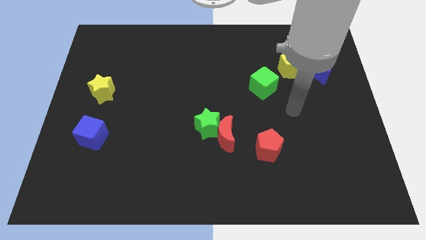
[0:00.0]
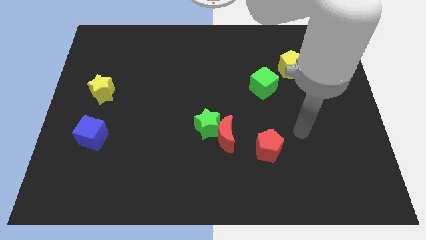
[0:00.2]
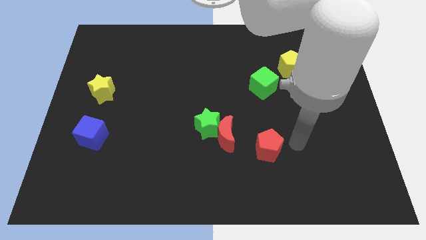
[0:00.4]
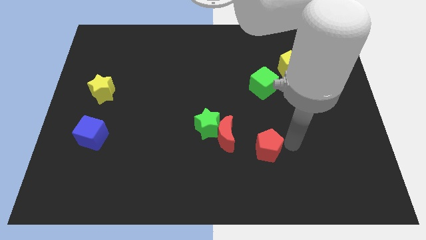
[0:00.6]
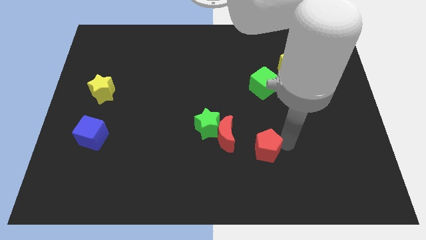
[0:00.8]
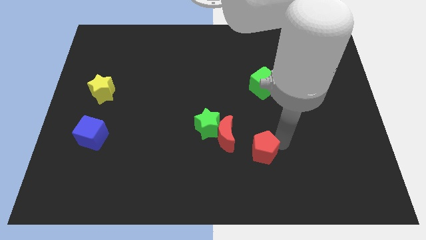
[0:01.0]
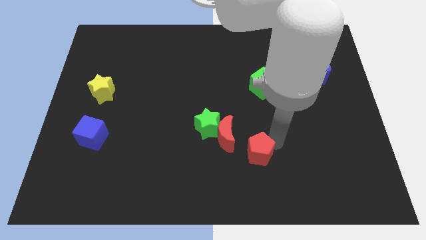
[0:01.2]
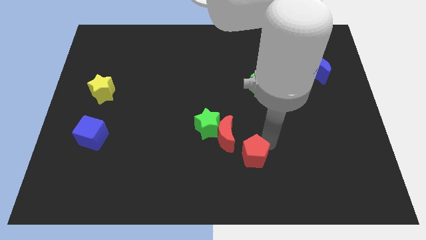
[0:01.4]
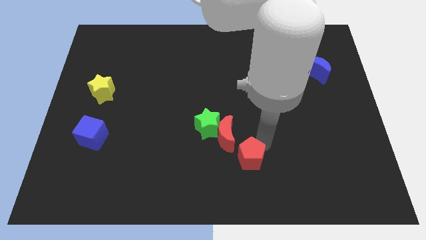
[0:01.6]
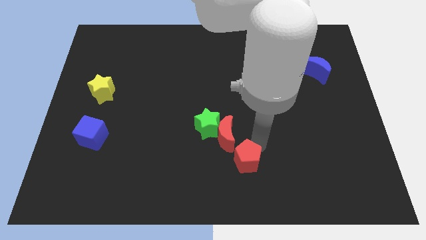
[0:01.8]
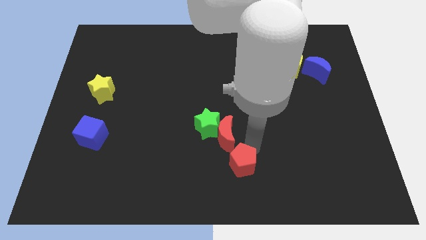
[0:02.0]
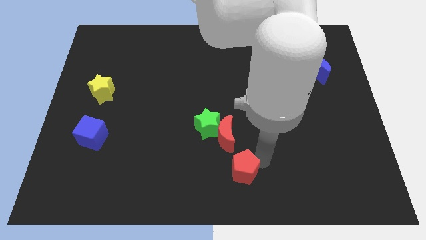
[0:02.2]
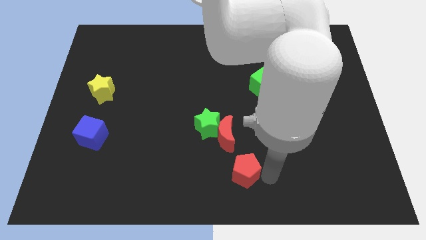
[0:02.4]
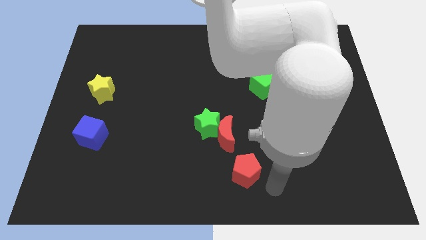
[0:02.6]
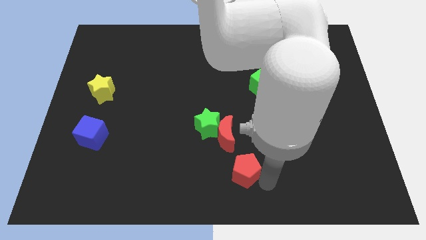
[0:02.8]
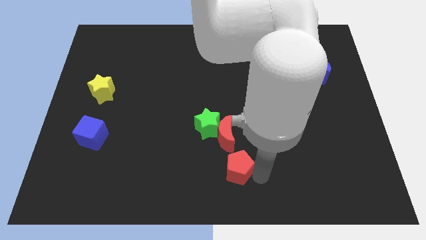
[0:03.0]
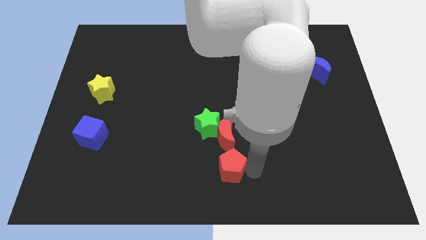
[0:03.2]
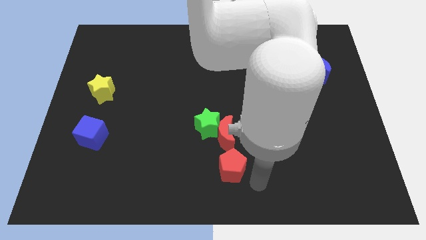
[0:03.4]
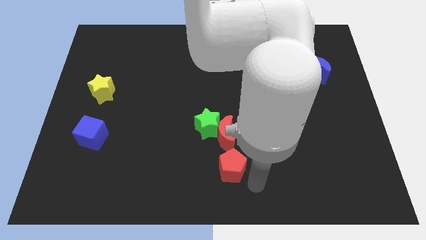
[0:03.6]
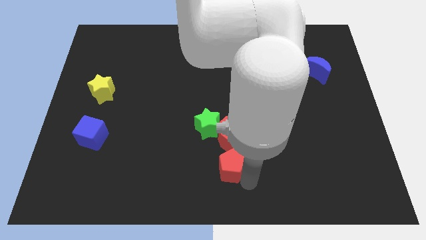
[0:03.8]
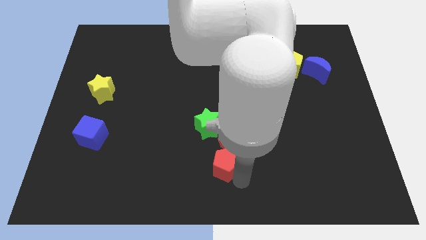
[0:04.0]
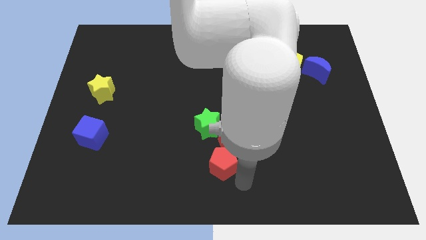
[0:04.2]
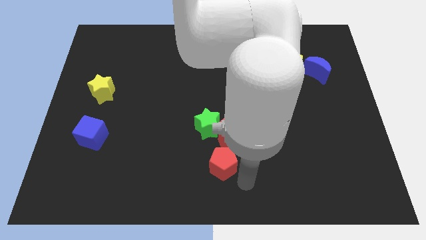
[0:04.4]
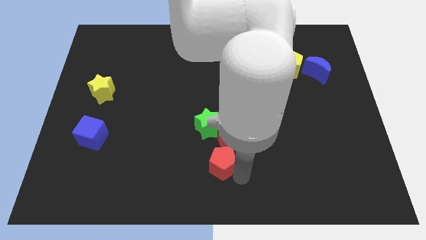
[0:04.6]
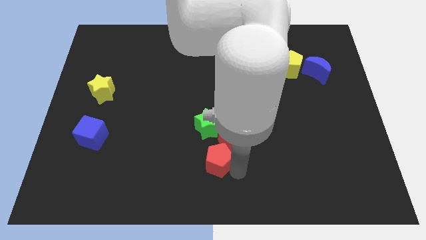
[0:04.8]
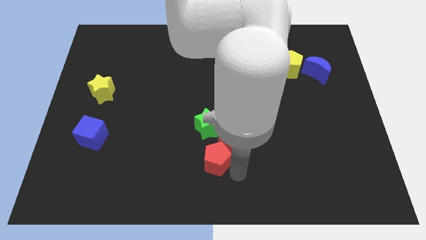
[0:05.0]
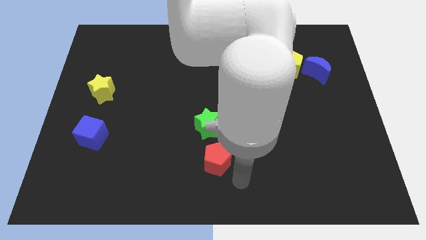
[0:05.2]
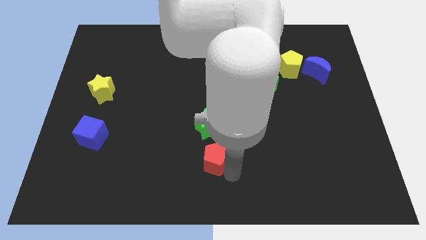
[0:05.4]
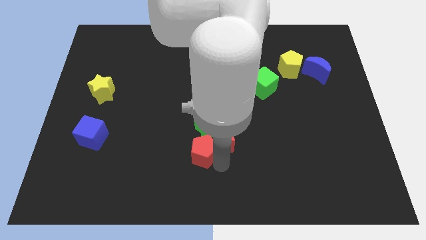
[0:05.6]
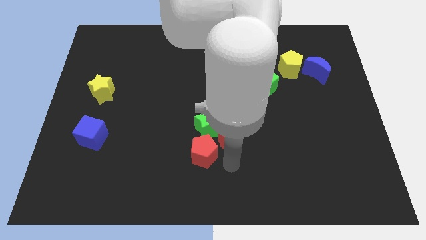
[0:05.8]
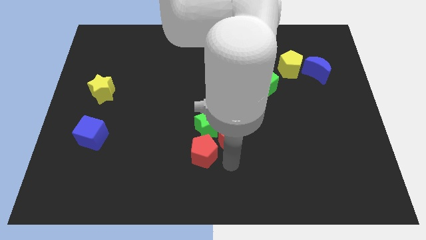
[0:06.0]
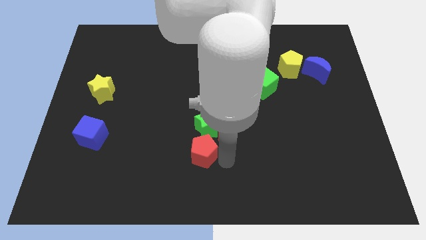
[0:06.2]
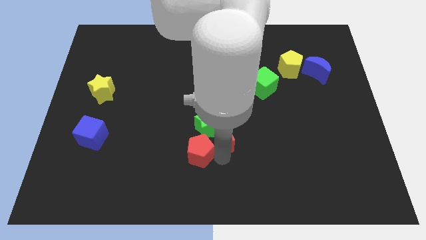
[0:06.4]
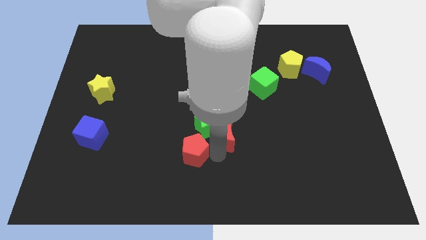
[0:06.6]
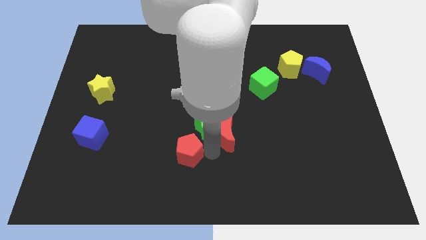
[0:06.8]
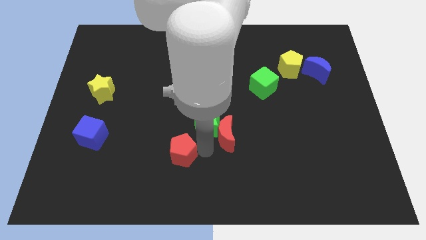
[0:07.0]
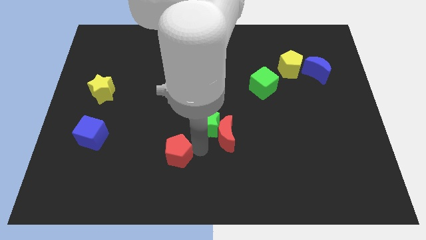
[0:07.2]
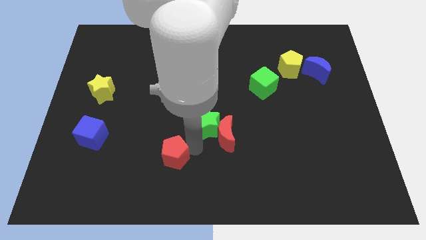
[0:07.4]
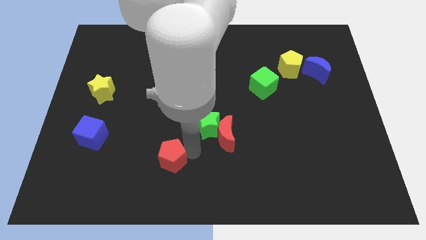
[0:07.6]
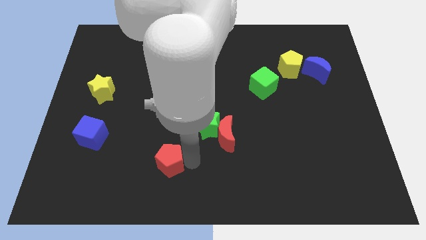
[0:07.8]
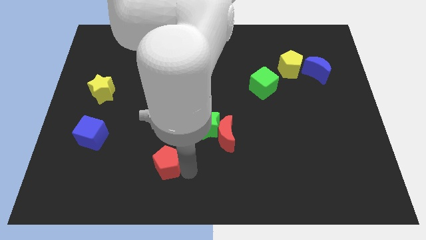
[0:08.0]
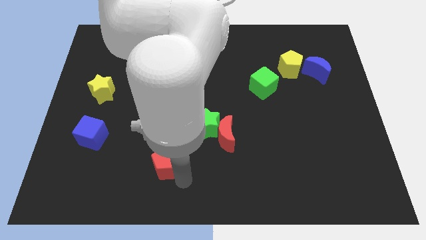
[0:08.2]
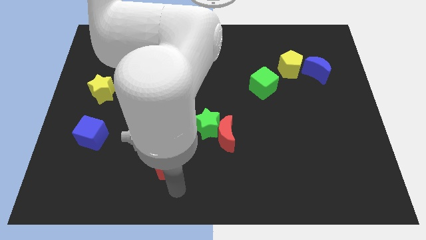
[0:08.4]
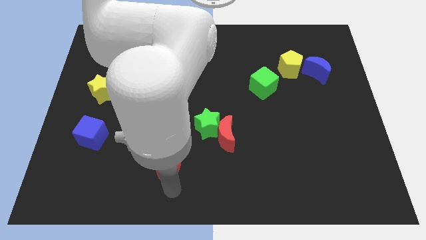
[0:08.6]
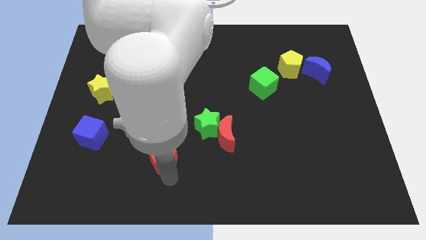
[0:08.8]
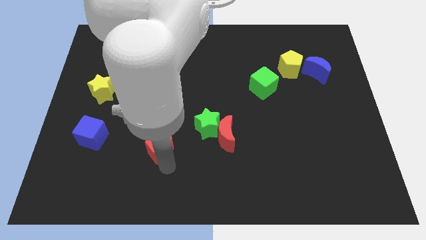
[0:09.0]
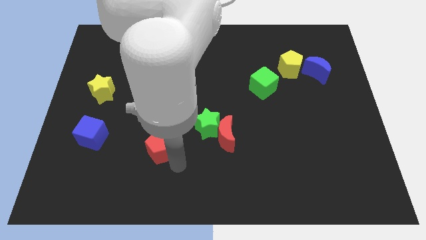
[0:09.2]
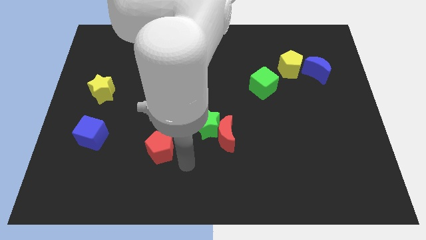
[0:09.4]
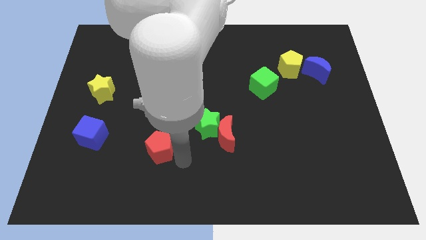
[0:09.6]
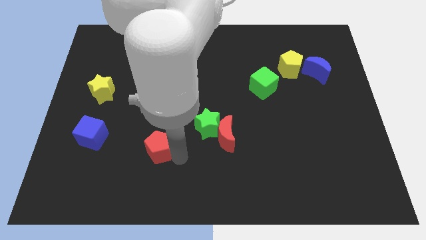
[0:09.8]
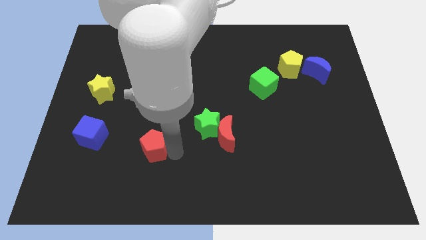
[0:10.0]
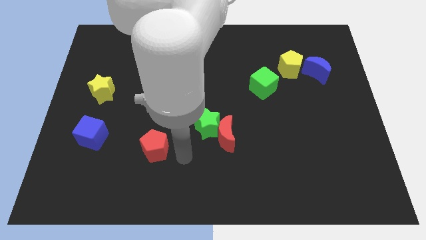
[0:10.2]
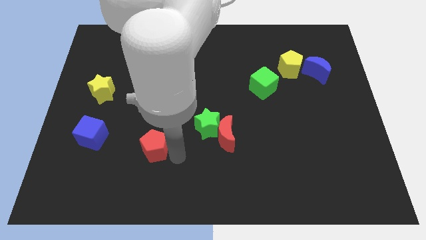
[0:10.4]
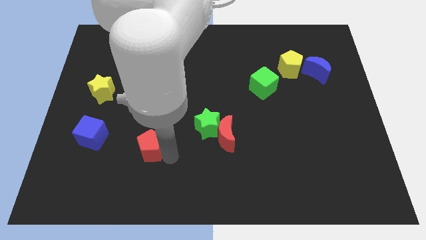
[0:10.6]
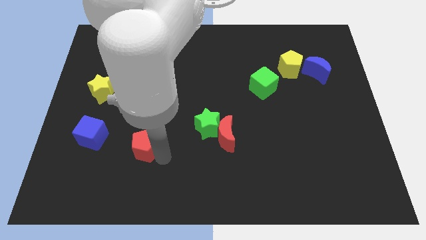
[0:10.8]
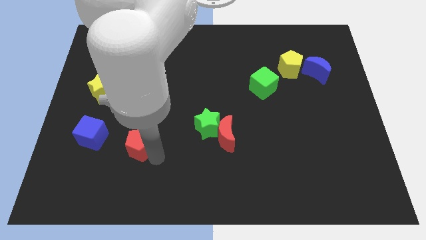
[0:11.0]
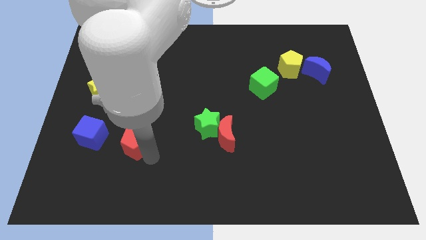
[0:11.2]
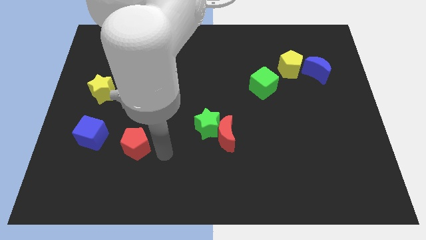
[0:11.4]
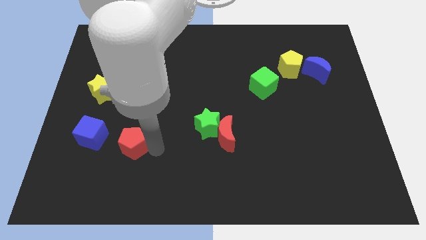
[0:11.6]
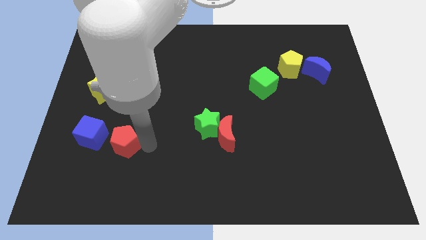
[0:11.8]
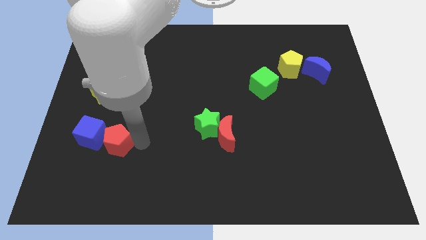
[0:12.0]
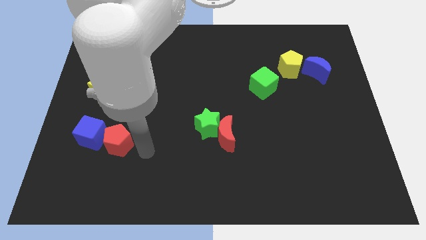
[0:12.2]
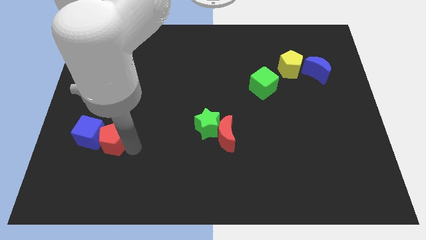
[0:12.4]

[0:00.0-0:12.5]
put the red pentagon towards the blue cube

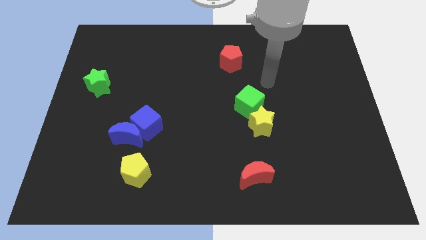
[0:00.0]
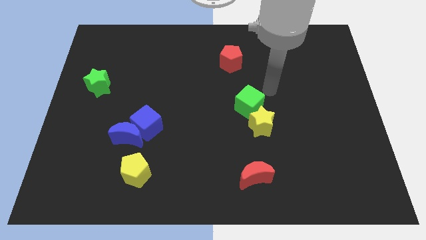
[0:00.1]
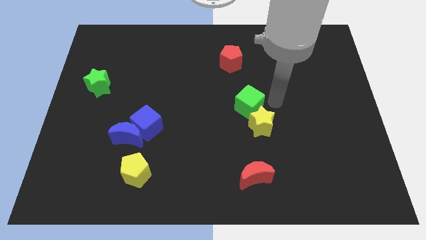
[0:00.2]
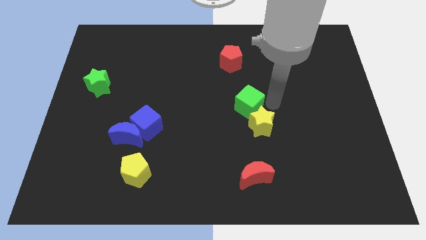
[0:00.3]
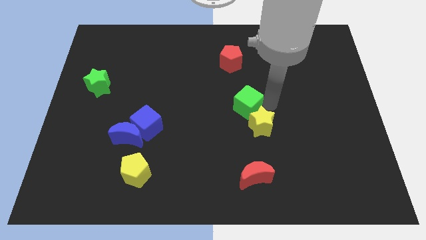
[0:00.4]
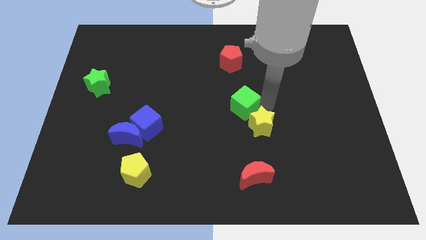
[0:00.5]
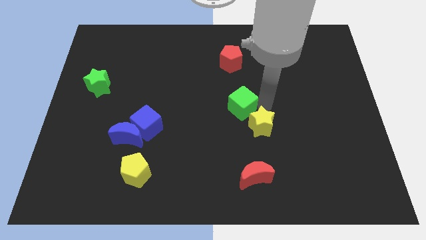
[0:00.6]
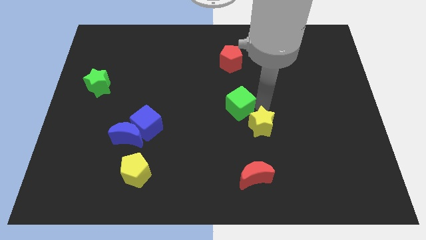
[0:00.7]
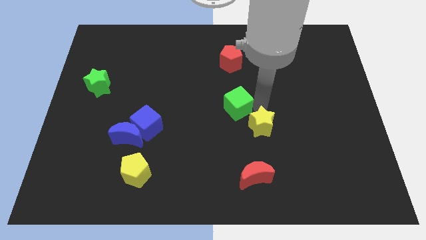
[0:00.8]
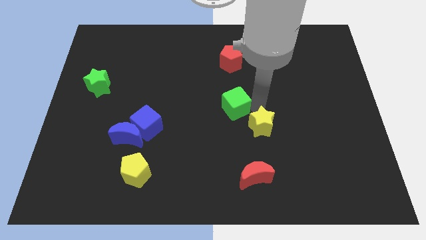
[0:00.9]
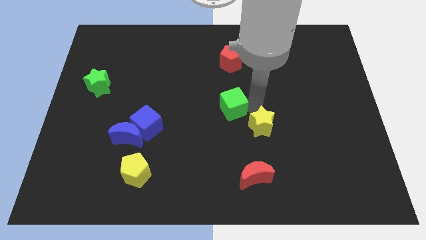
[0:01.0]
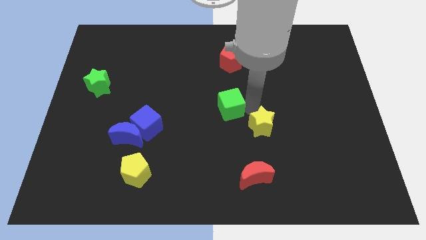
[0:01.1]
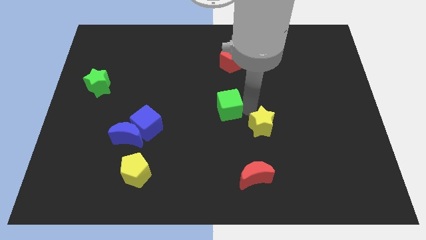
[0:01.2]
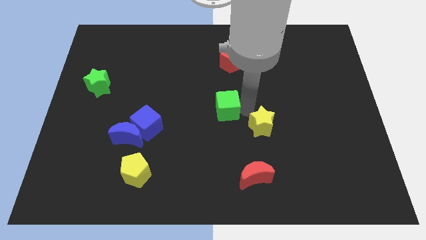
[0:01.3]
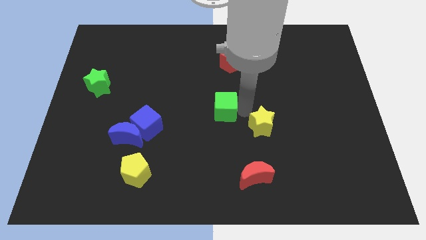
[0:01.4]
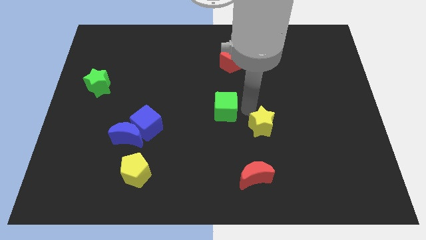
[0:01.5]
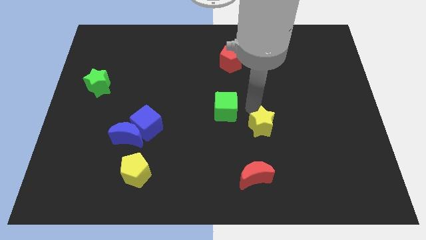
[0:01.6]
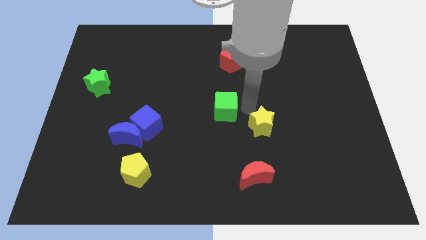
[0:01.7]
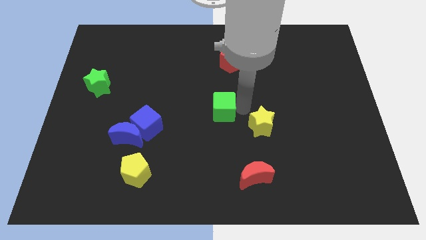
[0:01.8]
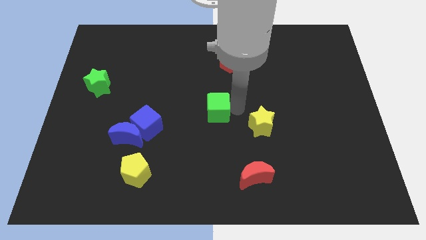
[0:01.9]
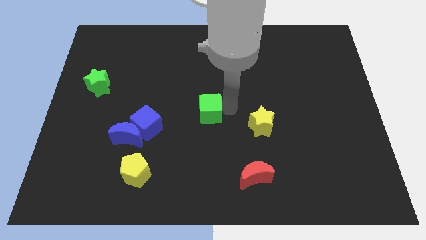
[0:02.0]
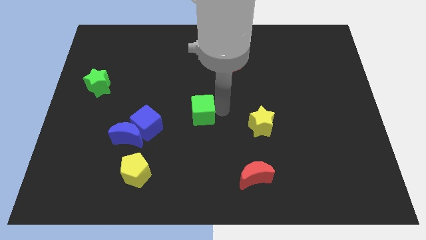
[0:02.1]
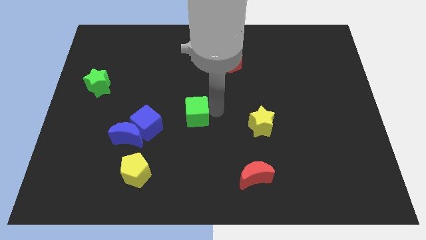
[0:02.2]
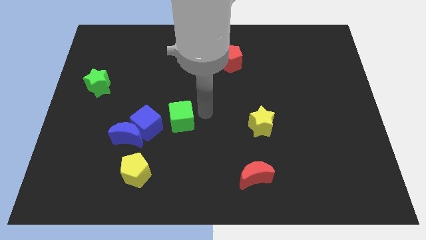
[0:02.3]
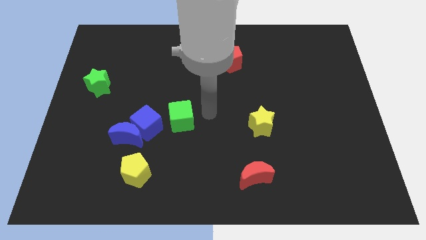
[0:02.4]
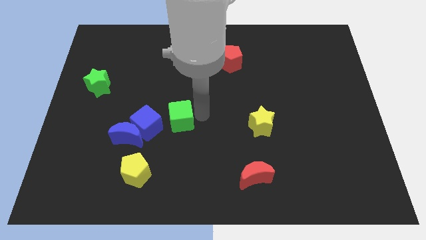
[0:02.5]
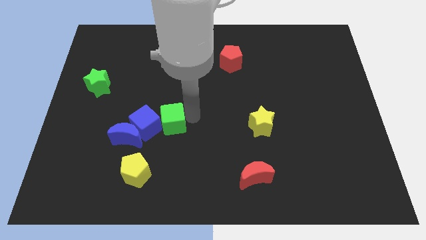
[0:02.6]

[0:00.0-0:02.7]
slide the green cube close to the blue cube
